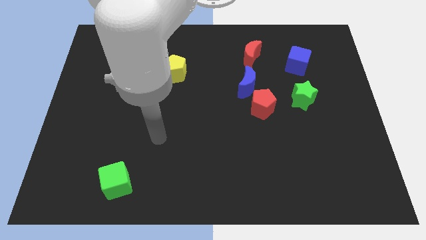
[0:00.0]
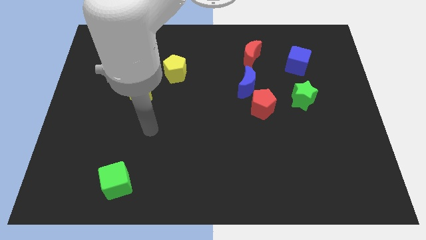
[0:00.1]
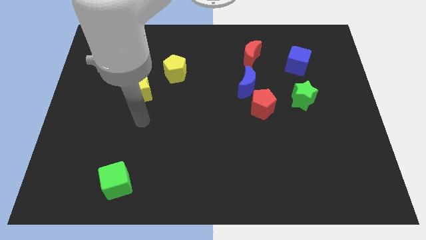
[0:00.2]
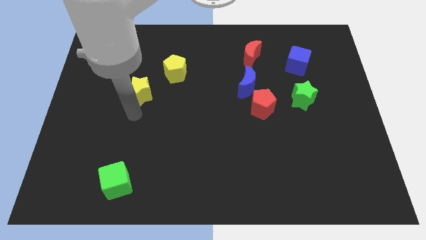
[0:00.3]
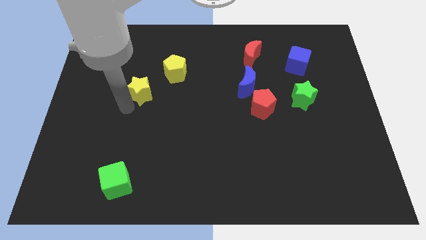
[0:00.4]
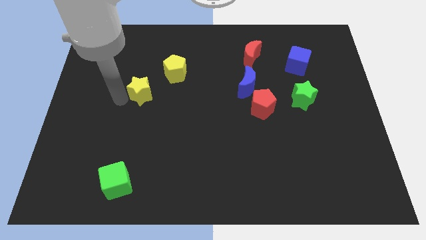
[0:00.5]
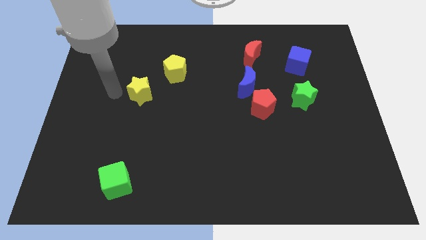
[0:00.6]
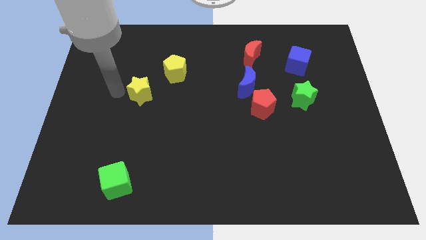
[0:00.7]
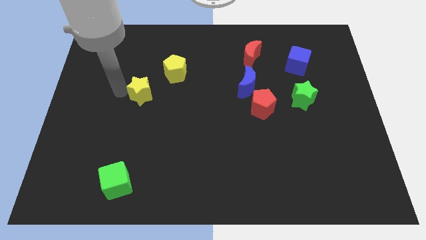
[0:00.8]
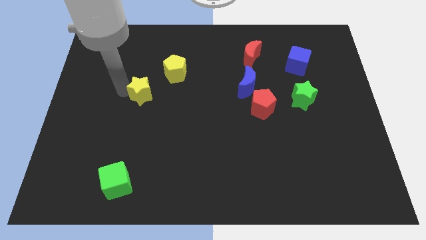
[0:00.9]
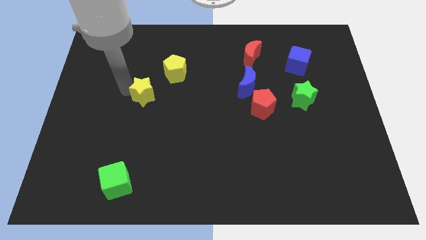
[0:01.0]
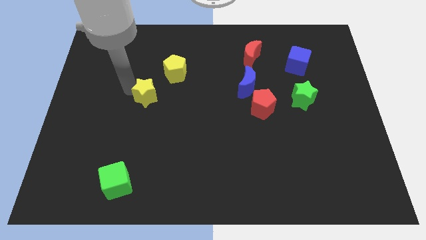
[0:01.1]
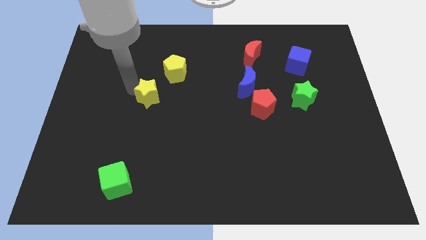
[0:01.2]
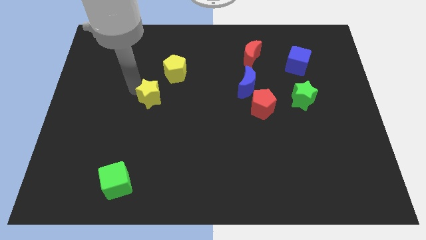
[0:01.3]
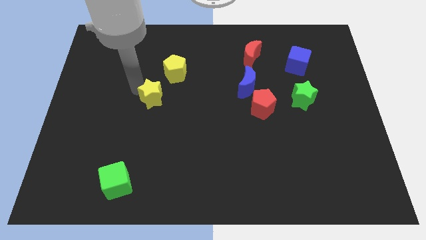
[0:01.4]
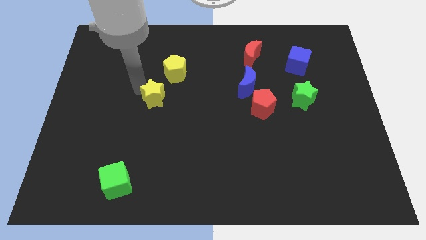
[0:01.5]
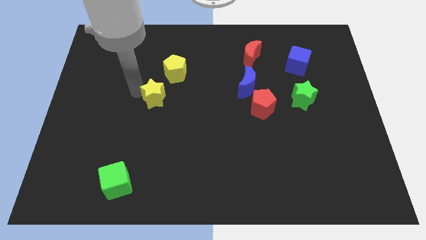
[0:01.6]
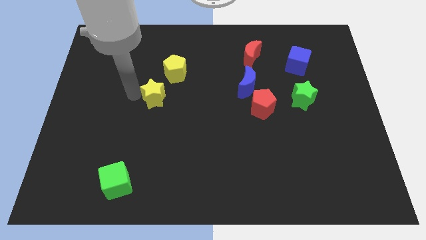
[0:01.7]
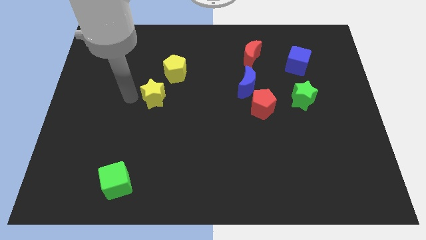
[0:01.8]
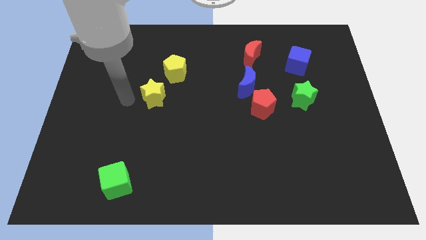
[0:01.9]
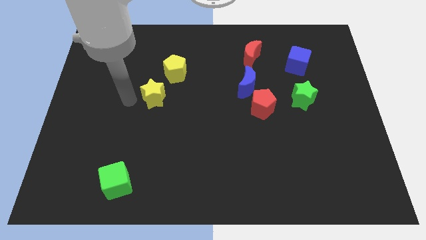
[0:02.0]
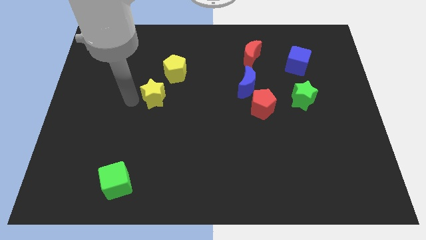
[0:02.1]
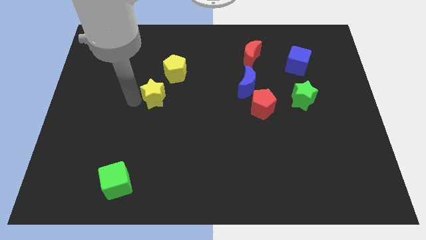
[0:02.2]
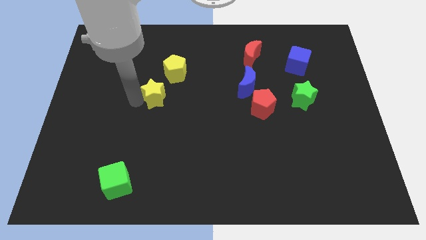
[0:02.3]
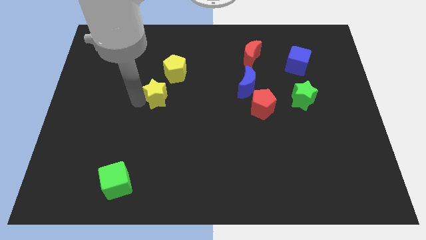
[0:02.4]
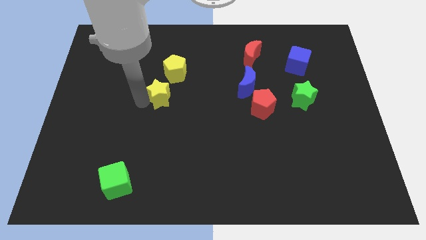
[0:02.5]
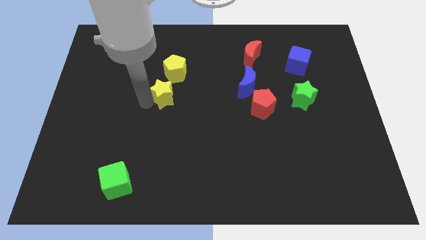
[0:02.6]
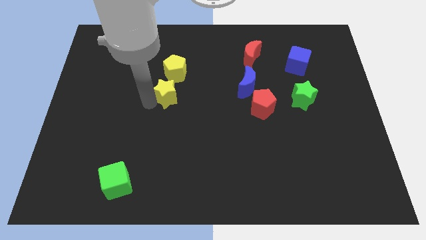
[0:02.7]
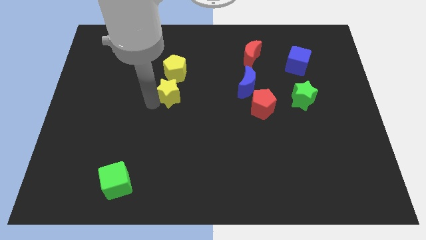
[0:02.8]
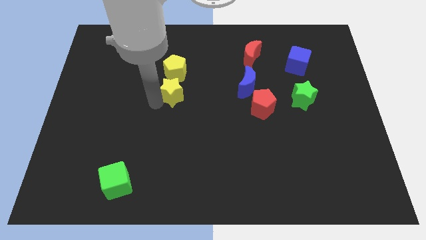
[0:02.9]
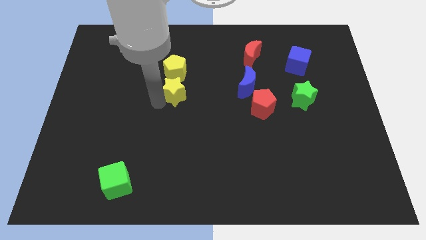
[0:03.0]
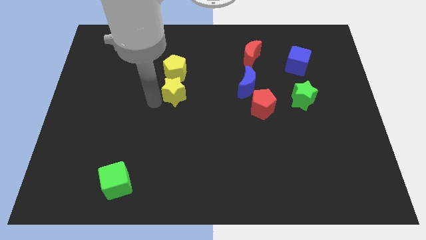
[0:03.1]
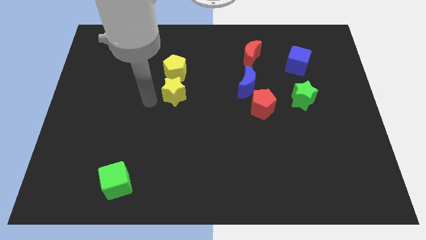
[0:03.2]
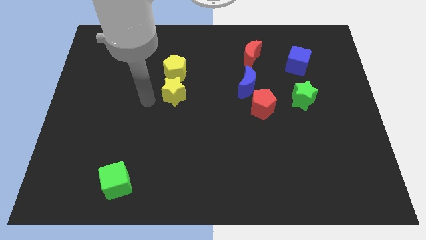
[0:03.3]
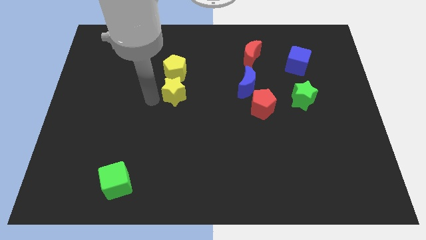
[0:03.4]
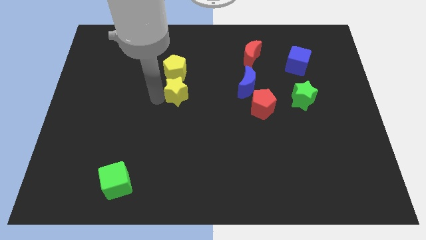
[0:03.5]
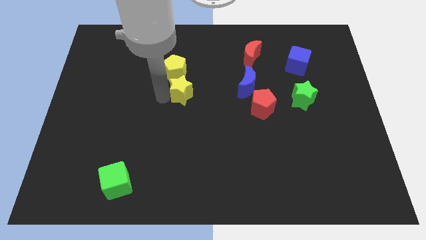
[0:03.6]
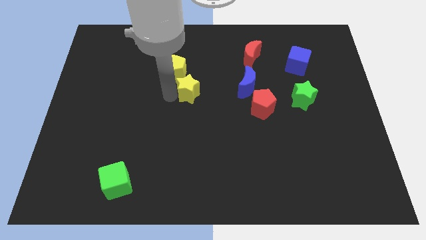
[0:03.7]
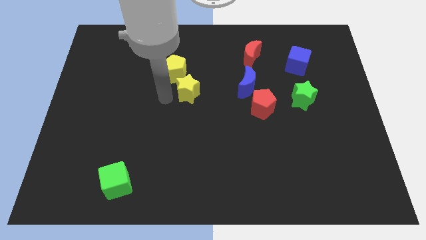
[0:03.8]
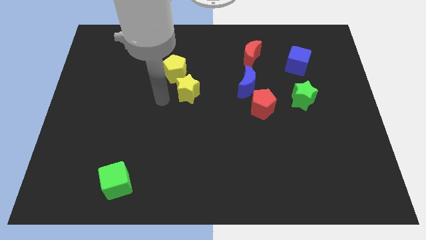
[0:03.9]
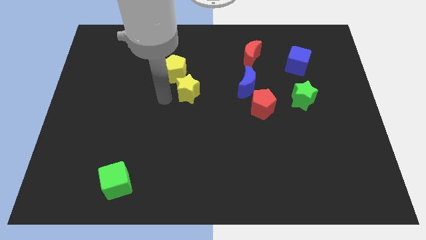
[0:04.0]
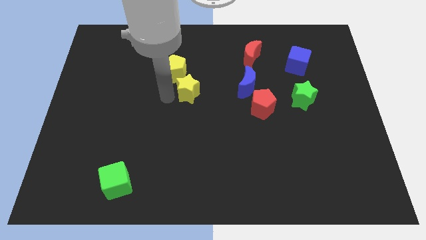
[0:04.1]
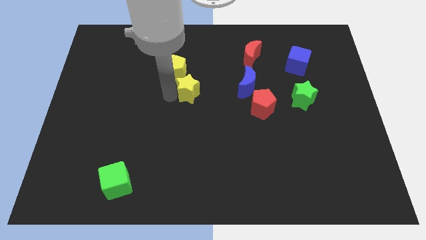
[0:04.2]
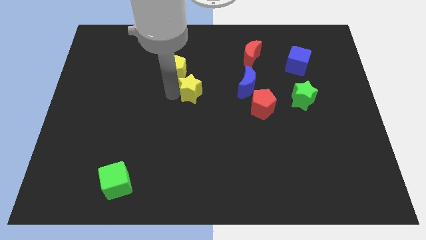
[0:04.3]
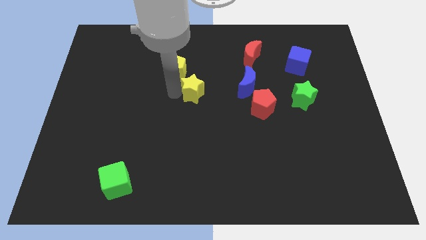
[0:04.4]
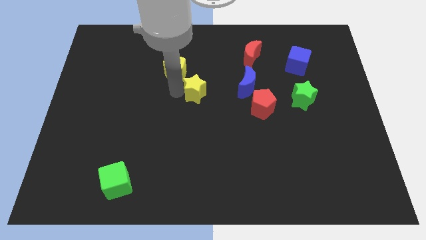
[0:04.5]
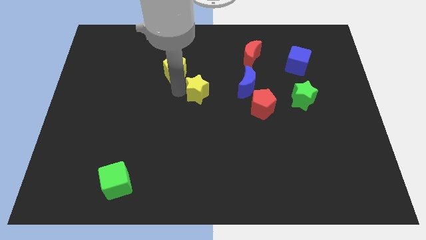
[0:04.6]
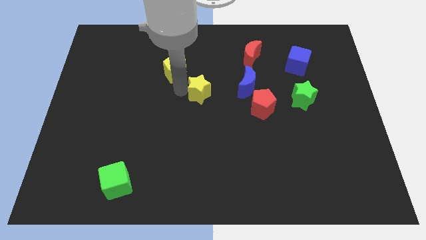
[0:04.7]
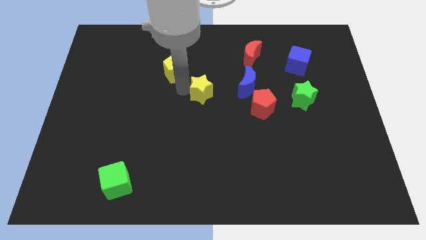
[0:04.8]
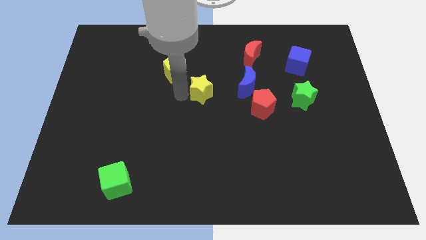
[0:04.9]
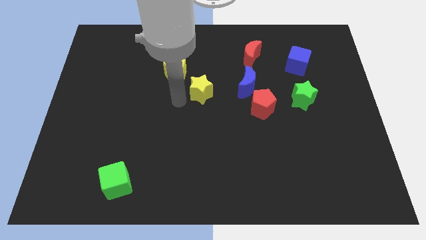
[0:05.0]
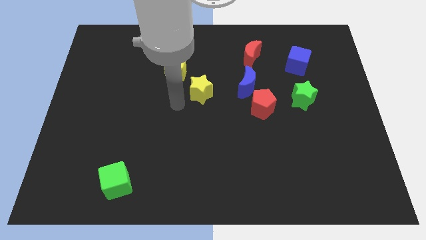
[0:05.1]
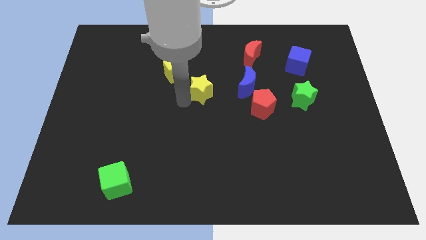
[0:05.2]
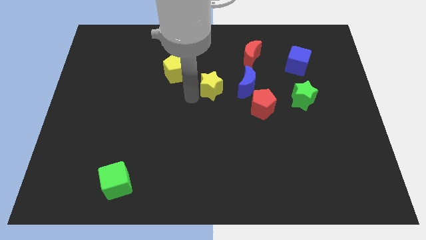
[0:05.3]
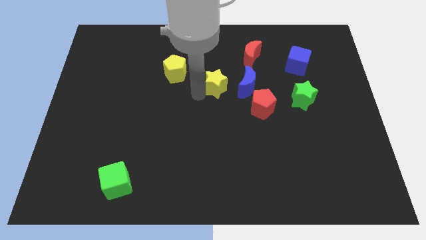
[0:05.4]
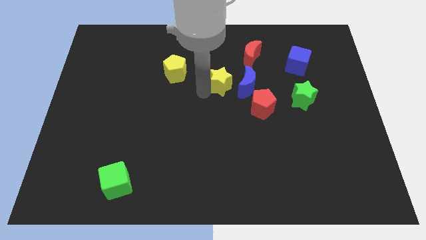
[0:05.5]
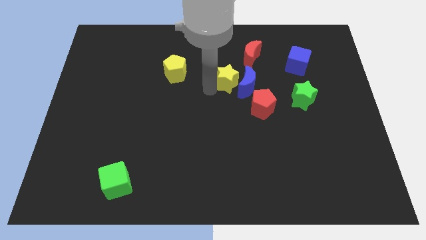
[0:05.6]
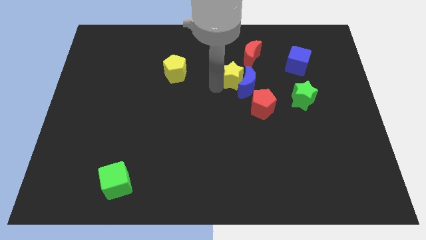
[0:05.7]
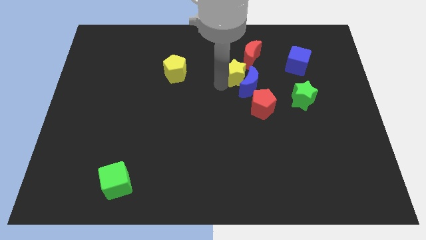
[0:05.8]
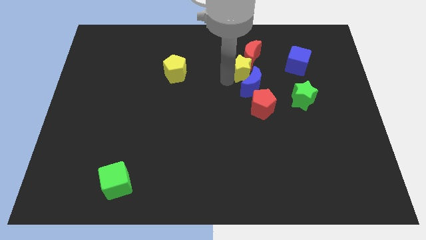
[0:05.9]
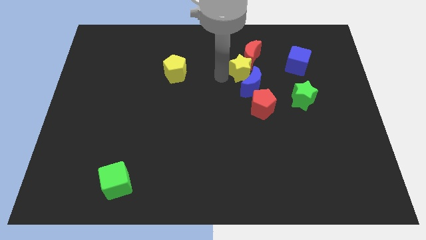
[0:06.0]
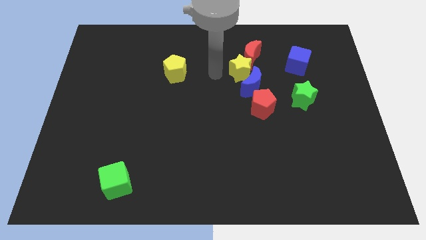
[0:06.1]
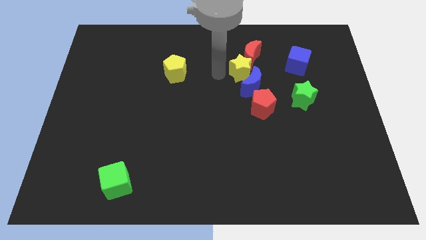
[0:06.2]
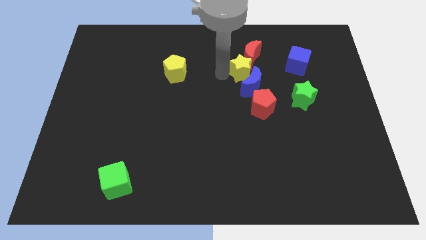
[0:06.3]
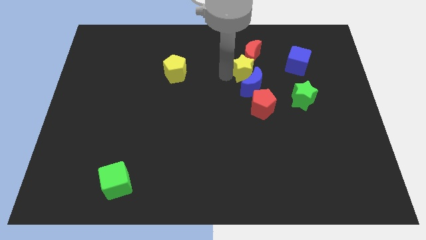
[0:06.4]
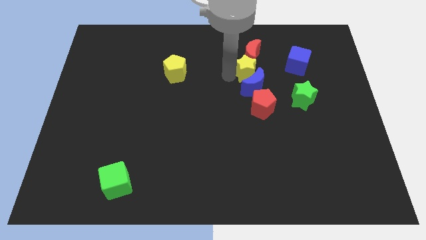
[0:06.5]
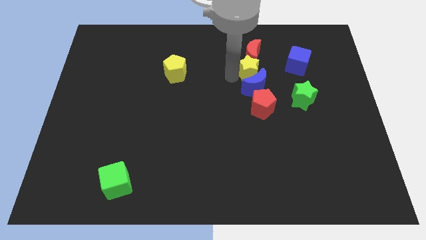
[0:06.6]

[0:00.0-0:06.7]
slide the yellow star to the top right side of the blue moon
